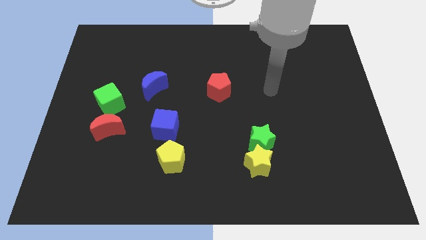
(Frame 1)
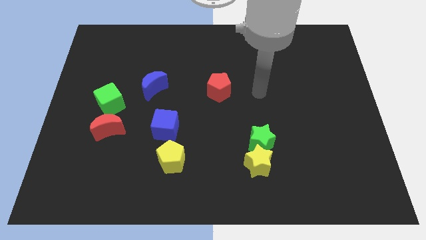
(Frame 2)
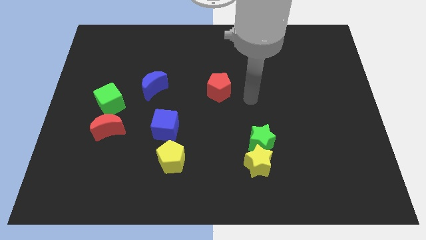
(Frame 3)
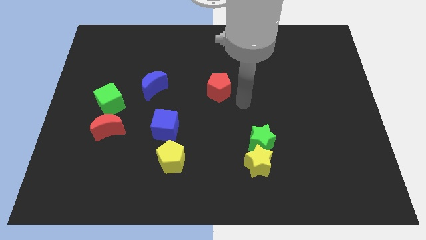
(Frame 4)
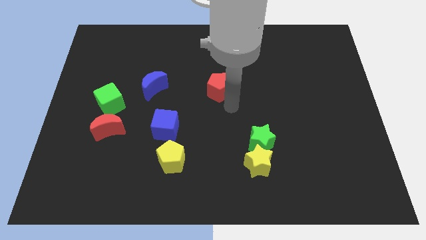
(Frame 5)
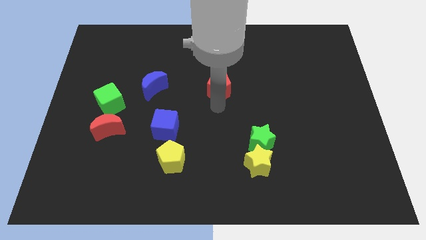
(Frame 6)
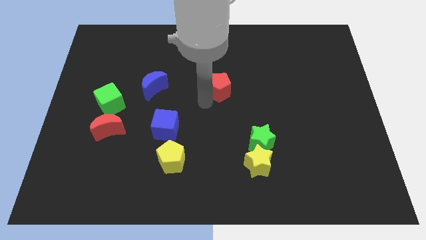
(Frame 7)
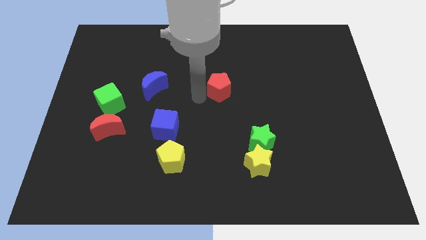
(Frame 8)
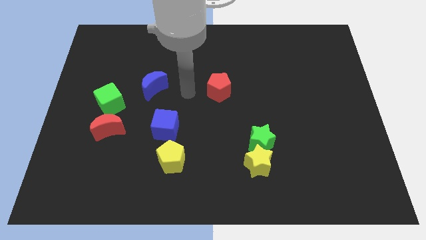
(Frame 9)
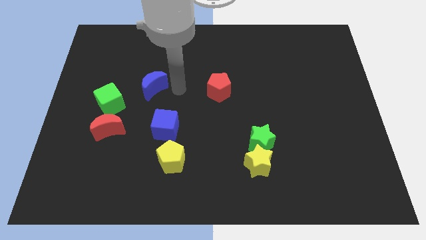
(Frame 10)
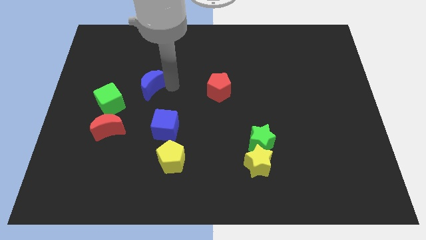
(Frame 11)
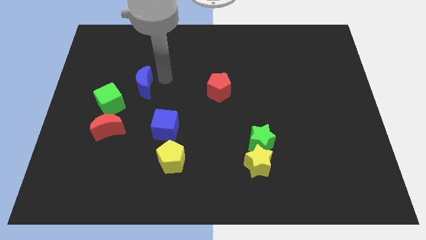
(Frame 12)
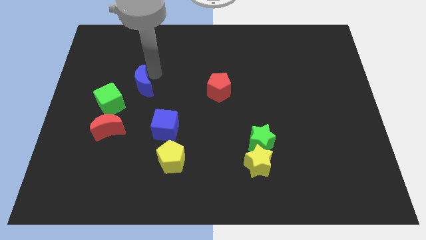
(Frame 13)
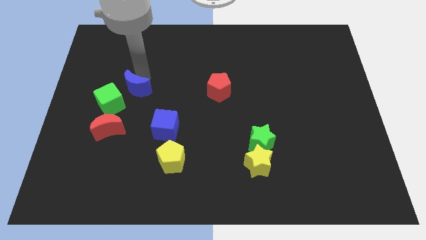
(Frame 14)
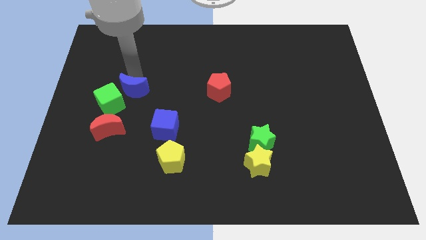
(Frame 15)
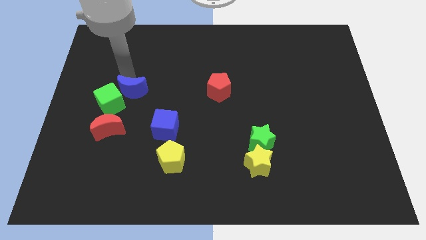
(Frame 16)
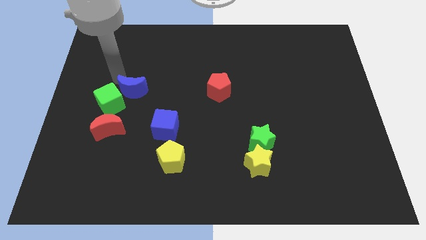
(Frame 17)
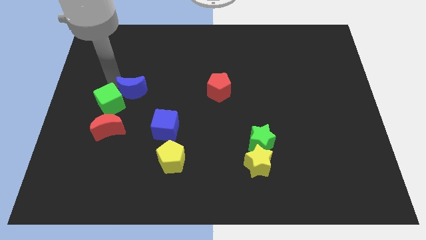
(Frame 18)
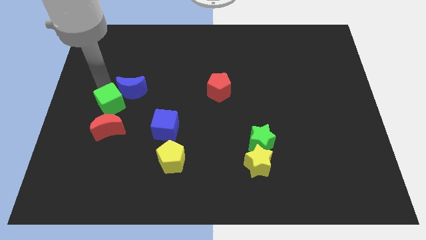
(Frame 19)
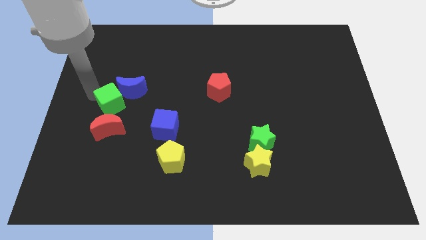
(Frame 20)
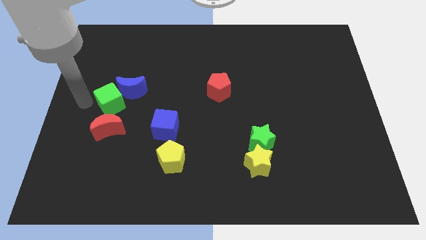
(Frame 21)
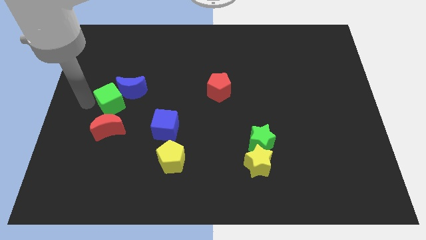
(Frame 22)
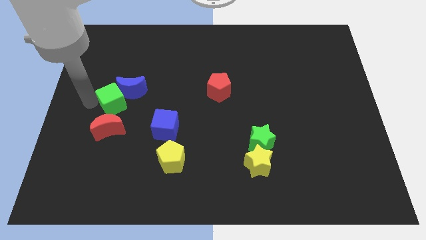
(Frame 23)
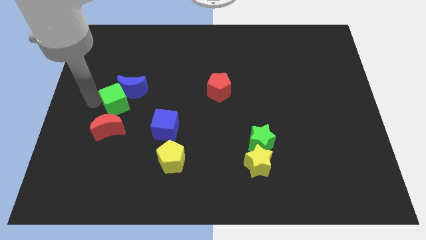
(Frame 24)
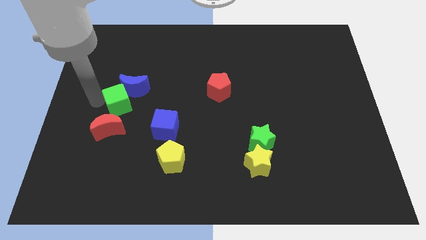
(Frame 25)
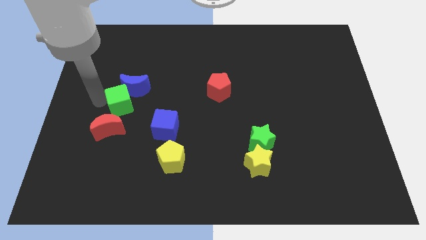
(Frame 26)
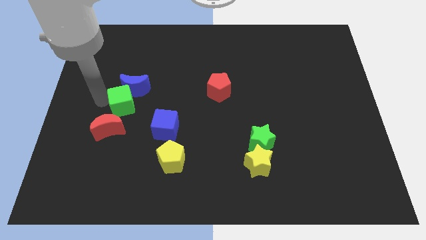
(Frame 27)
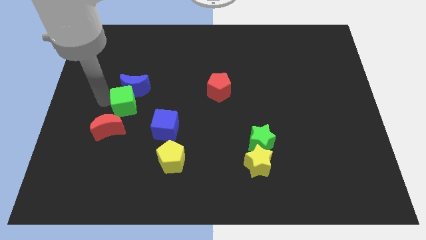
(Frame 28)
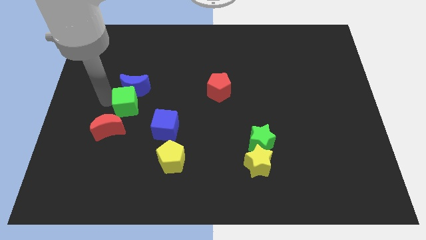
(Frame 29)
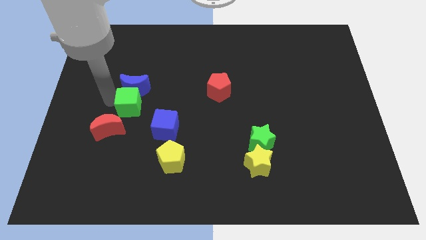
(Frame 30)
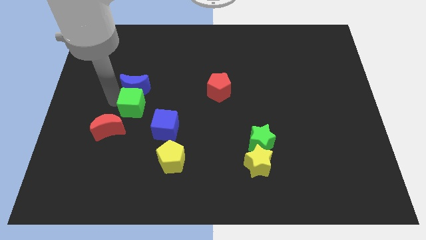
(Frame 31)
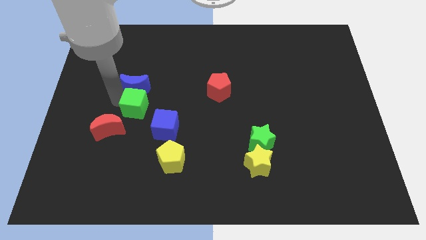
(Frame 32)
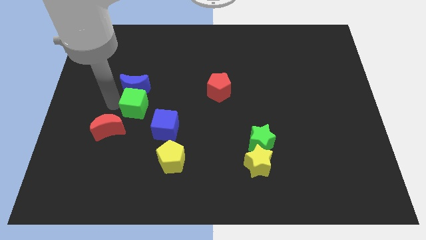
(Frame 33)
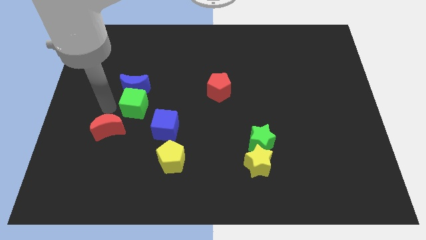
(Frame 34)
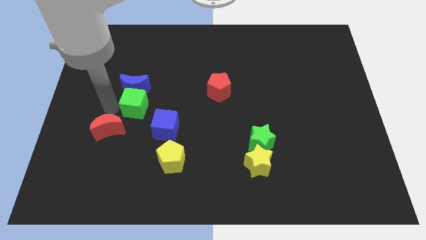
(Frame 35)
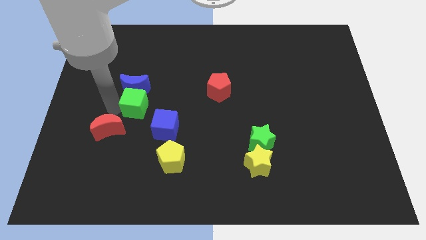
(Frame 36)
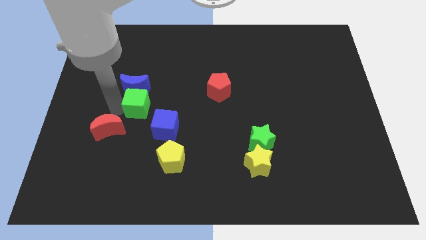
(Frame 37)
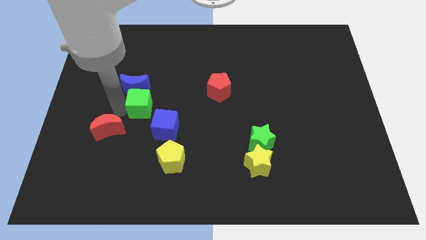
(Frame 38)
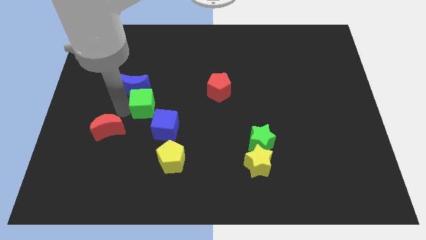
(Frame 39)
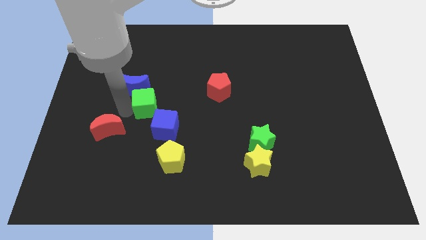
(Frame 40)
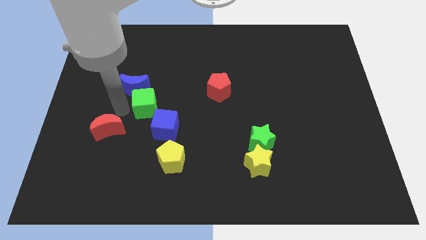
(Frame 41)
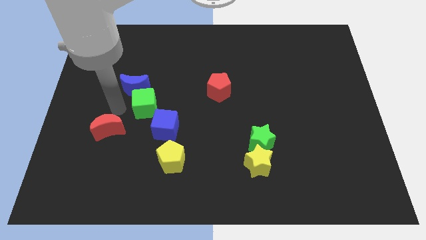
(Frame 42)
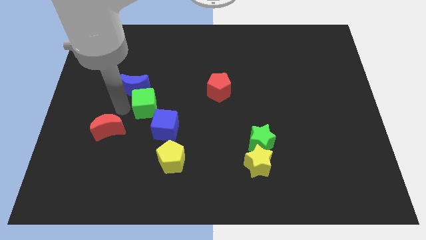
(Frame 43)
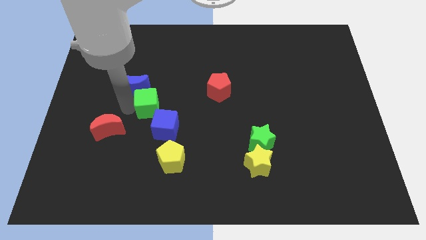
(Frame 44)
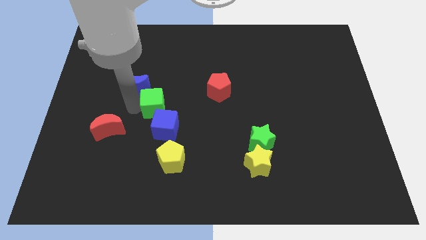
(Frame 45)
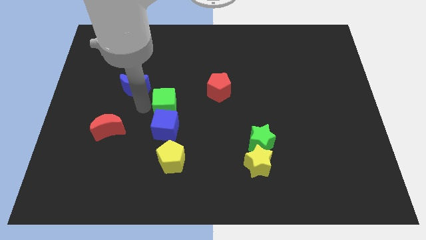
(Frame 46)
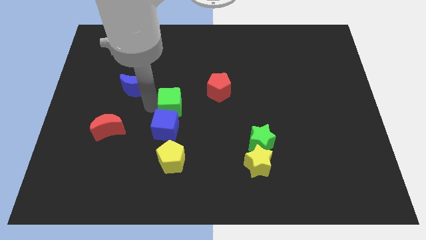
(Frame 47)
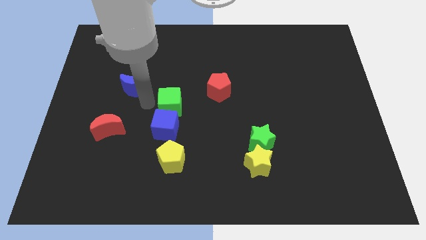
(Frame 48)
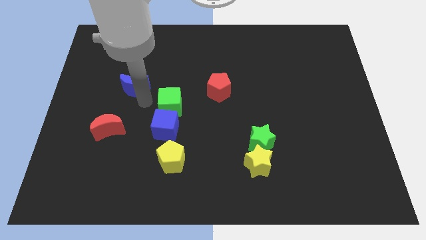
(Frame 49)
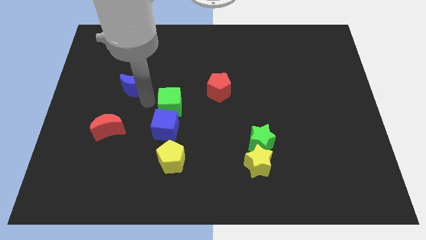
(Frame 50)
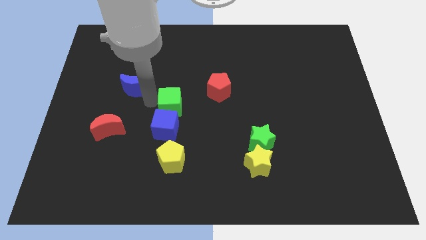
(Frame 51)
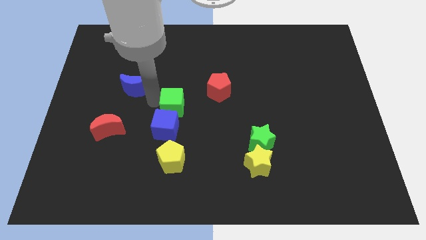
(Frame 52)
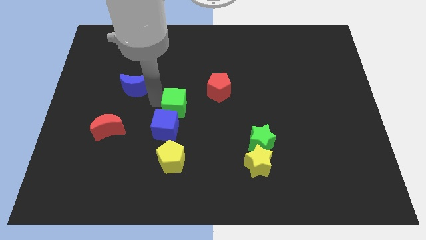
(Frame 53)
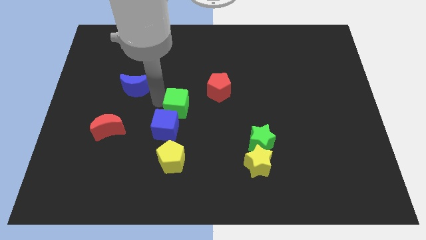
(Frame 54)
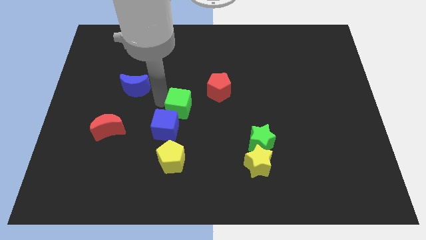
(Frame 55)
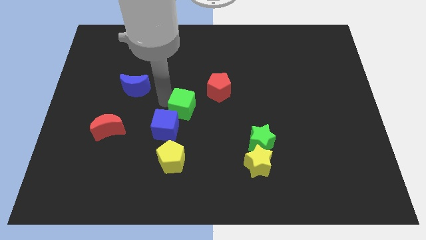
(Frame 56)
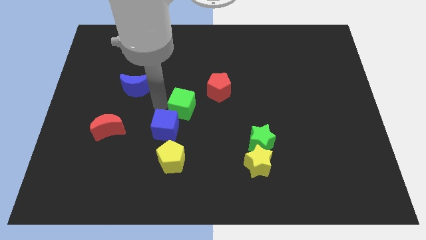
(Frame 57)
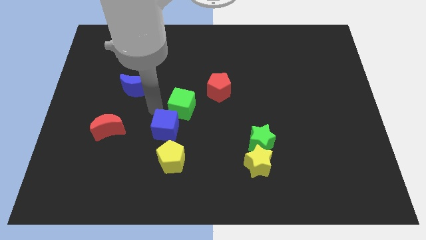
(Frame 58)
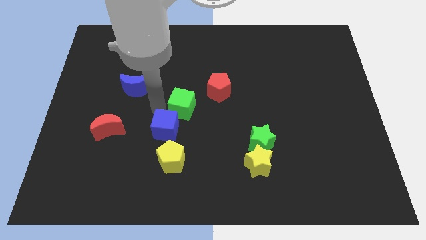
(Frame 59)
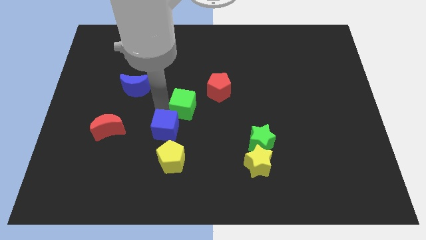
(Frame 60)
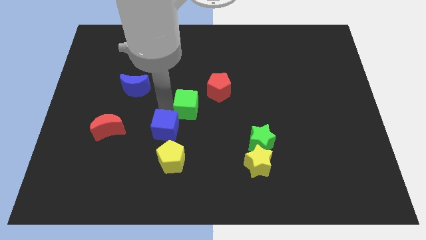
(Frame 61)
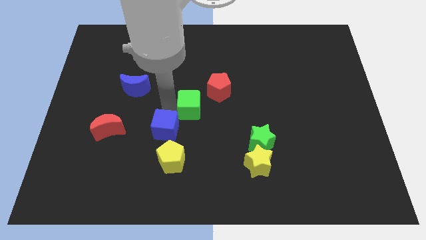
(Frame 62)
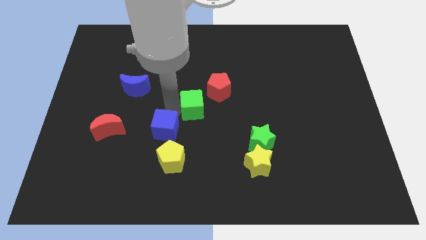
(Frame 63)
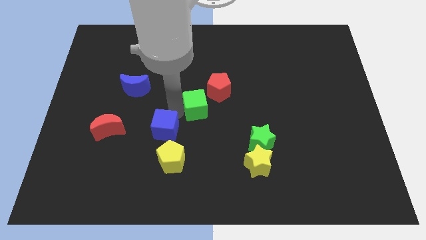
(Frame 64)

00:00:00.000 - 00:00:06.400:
push the green cube right

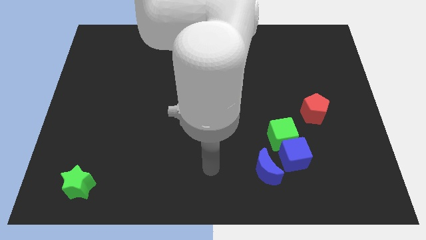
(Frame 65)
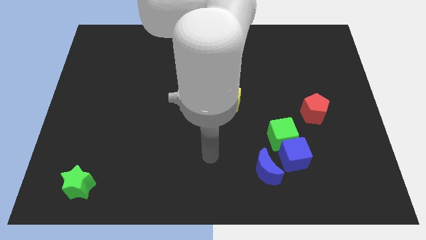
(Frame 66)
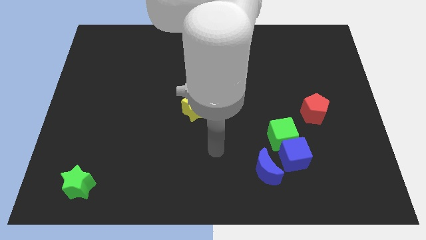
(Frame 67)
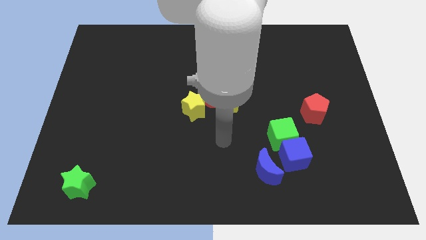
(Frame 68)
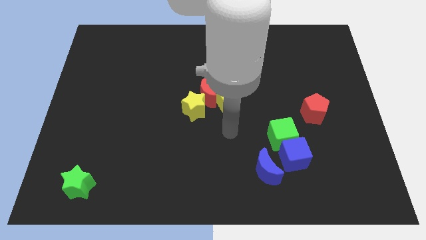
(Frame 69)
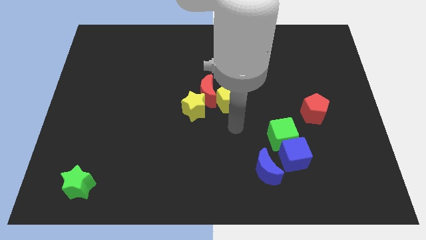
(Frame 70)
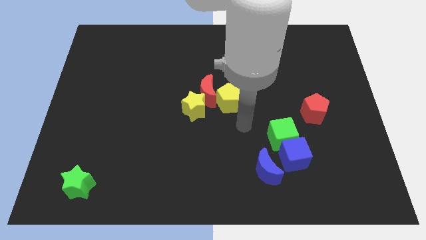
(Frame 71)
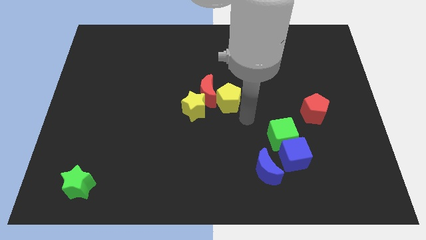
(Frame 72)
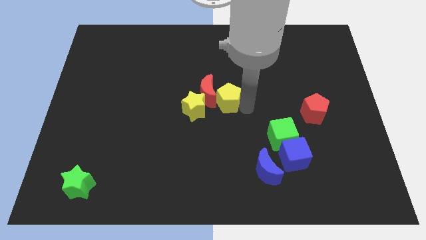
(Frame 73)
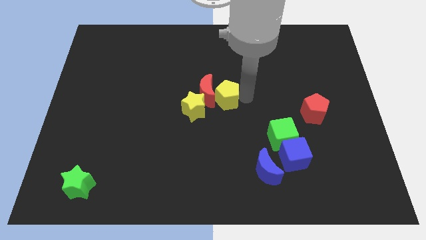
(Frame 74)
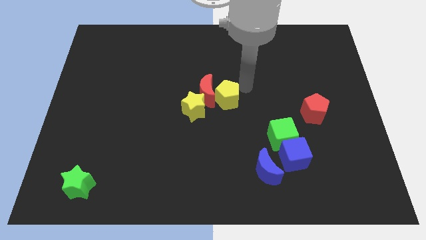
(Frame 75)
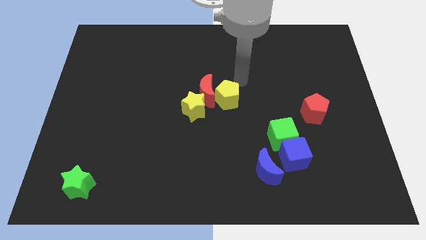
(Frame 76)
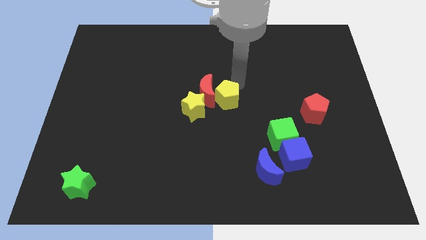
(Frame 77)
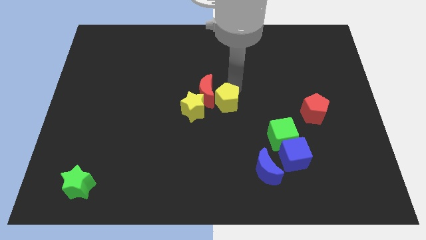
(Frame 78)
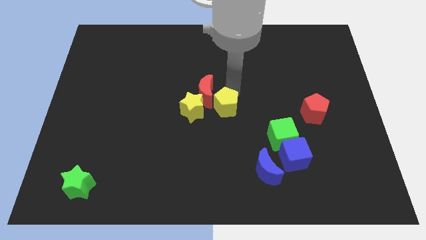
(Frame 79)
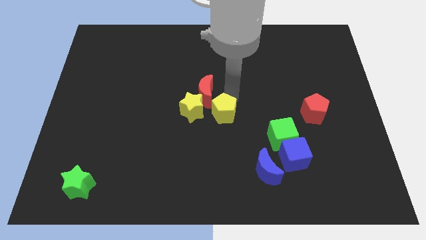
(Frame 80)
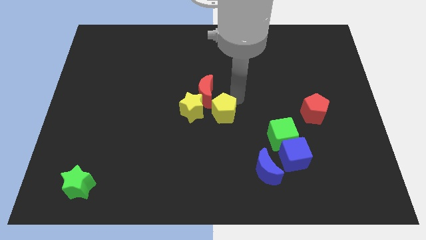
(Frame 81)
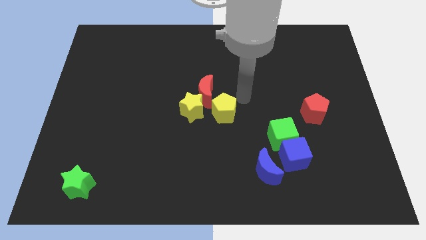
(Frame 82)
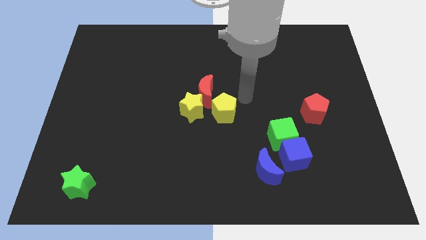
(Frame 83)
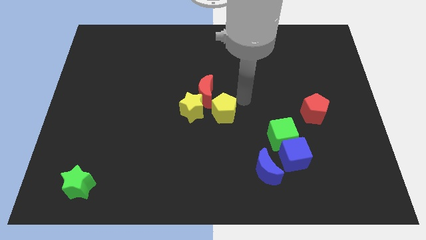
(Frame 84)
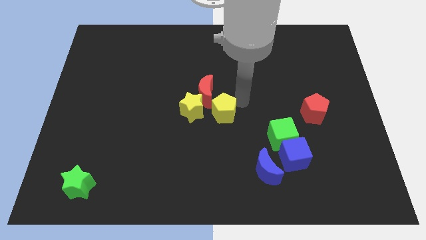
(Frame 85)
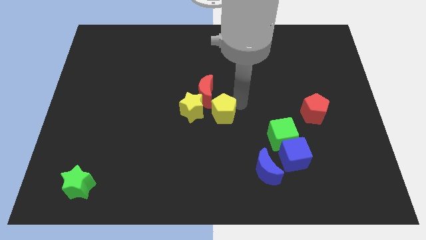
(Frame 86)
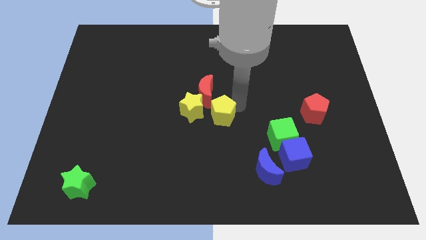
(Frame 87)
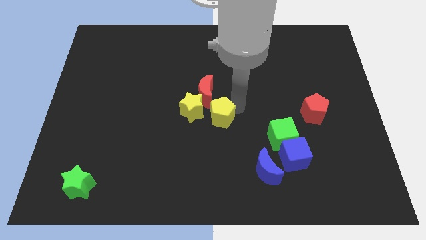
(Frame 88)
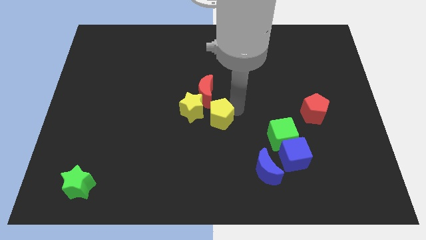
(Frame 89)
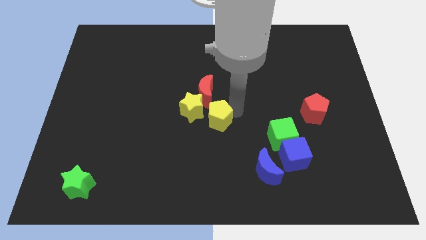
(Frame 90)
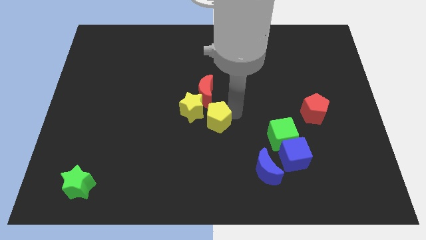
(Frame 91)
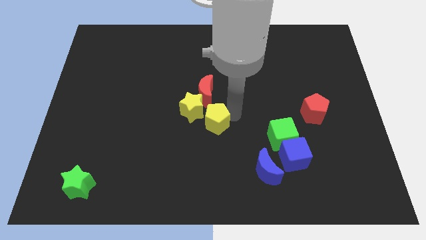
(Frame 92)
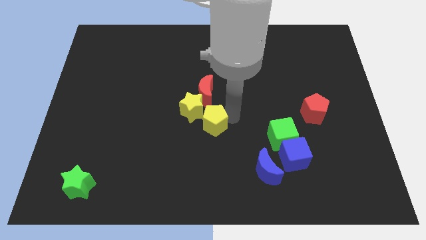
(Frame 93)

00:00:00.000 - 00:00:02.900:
slightly push the yellow pentagon down and then left
